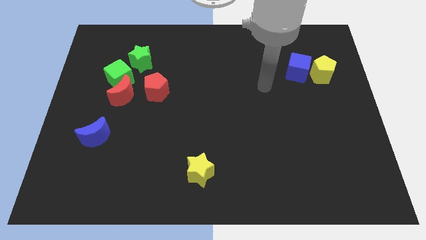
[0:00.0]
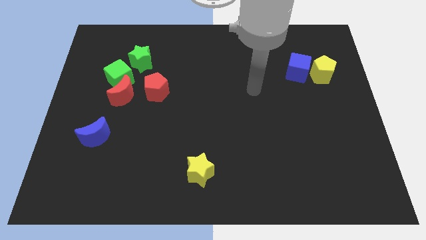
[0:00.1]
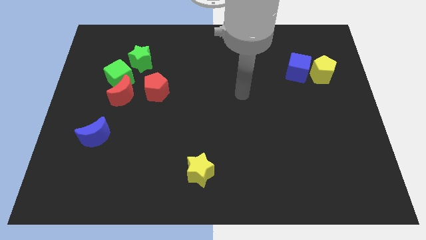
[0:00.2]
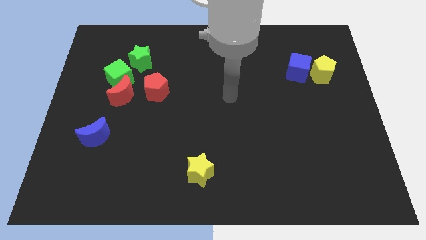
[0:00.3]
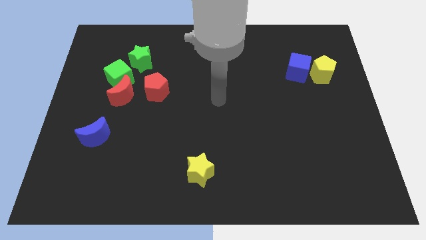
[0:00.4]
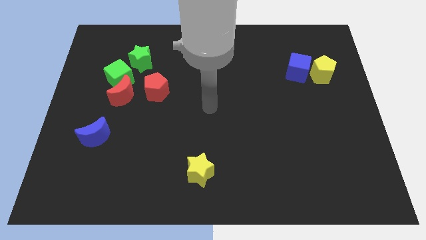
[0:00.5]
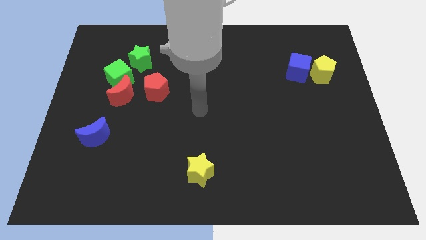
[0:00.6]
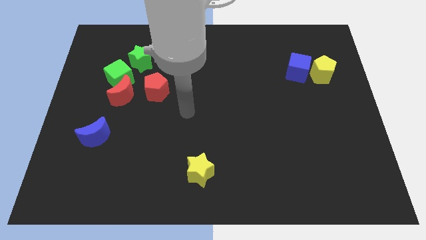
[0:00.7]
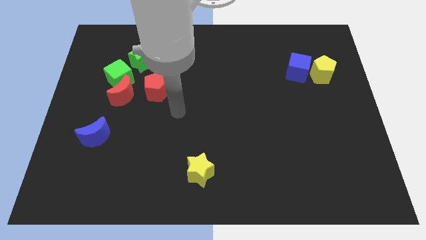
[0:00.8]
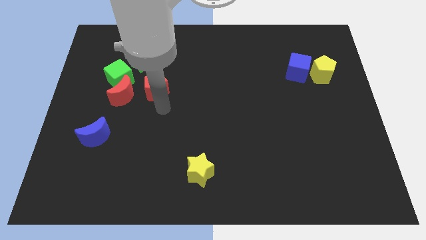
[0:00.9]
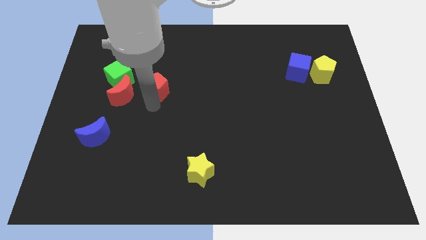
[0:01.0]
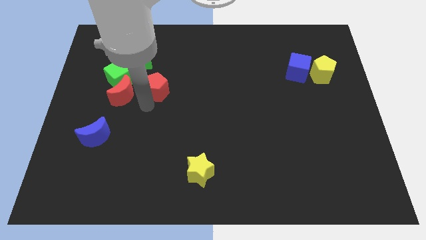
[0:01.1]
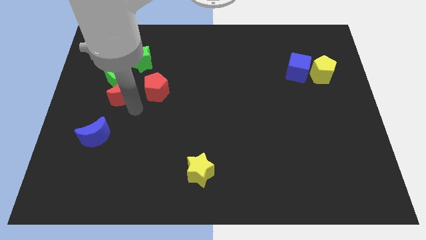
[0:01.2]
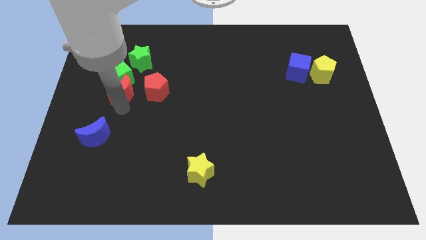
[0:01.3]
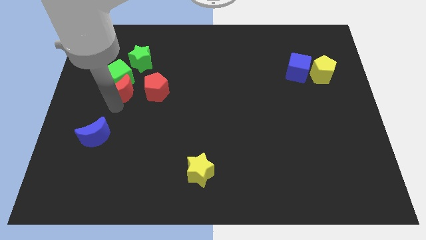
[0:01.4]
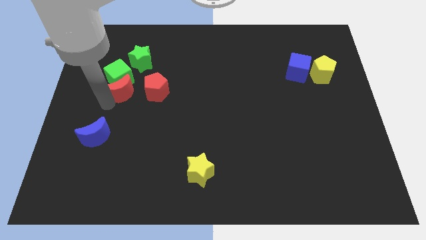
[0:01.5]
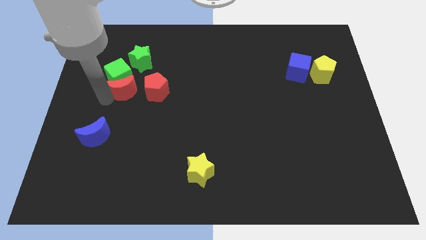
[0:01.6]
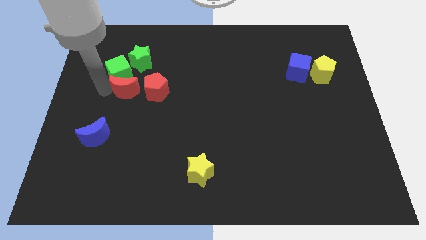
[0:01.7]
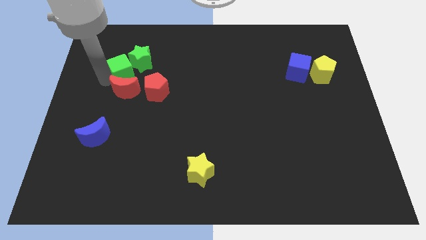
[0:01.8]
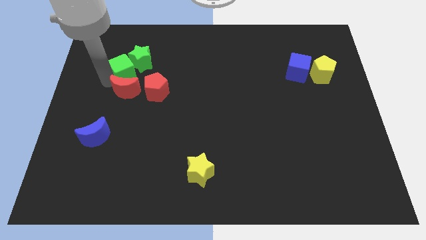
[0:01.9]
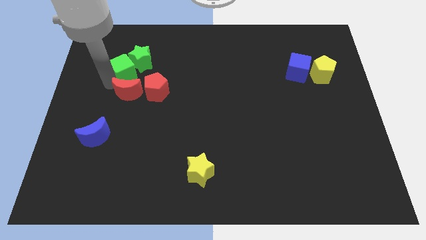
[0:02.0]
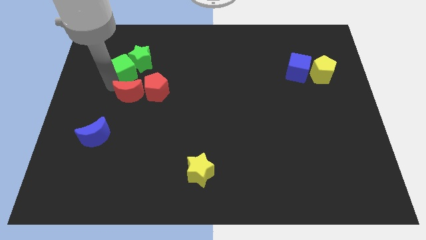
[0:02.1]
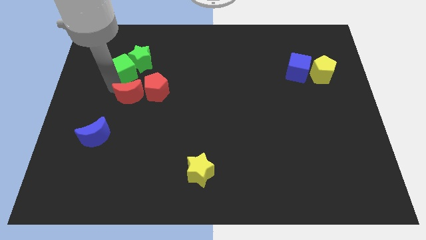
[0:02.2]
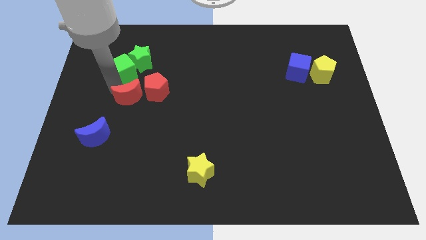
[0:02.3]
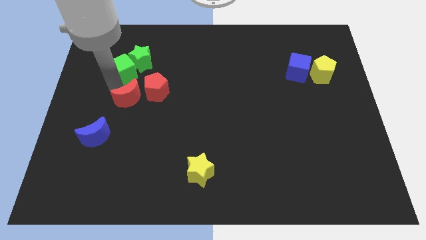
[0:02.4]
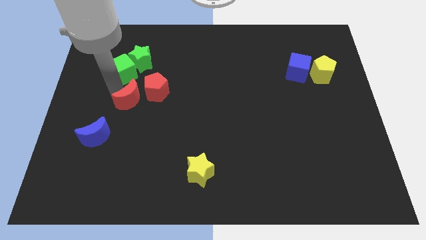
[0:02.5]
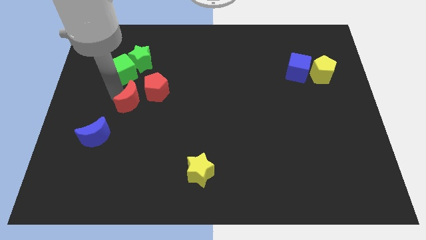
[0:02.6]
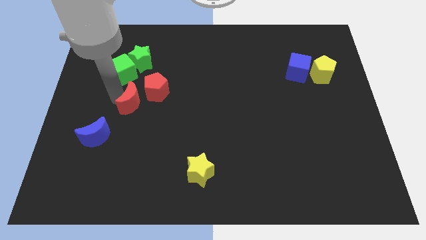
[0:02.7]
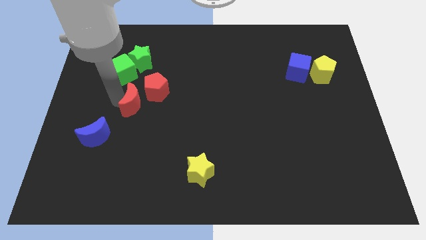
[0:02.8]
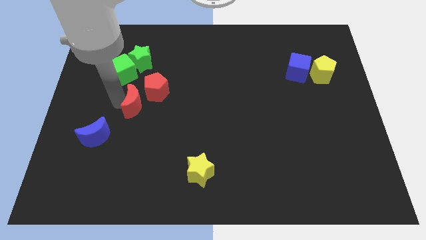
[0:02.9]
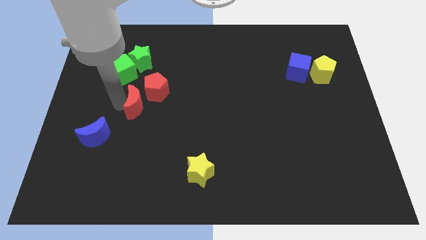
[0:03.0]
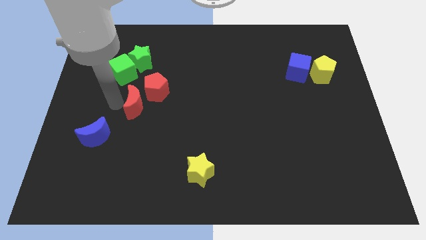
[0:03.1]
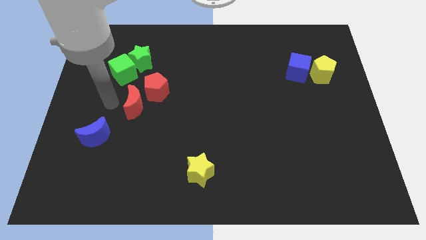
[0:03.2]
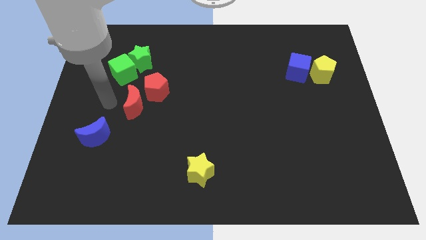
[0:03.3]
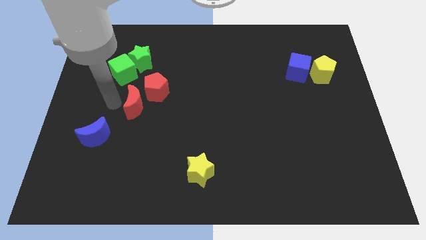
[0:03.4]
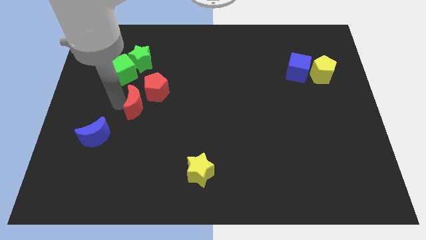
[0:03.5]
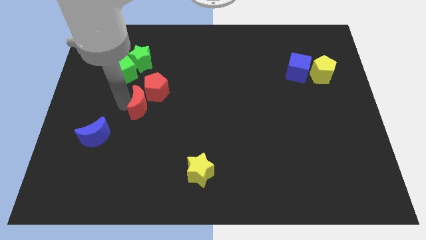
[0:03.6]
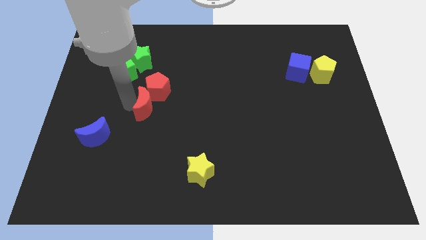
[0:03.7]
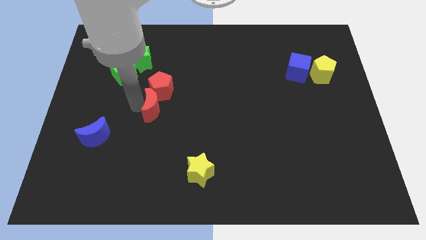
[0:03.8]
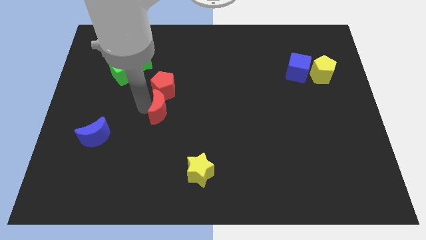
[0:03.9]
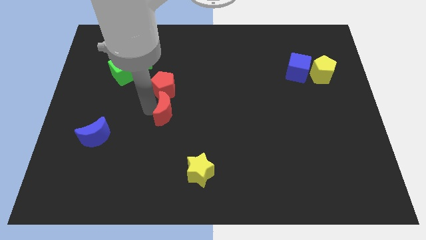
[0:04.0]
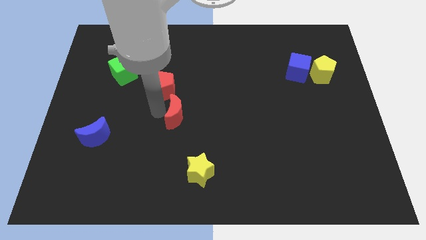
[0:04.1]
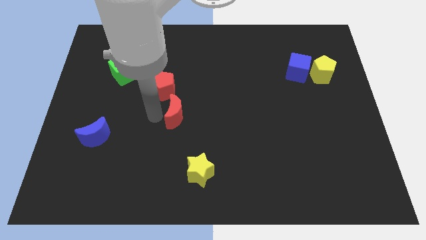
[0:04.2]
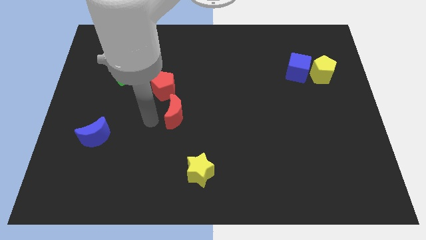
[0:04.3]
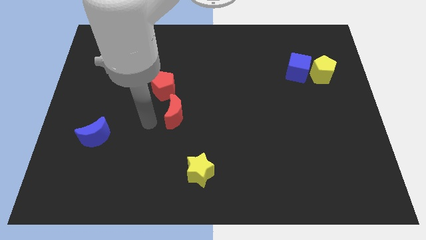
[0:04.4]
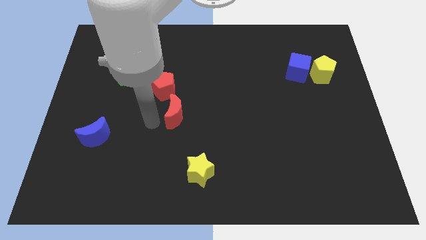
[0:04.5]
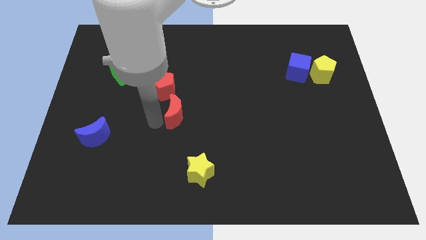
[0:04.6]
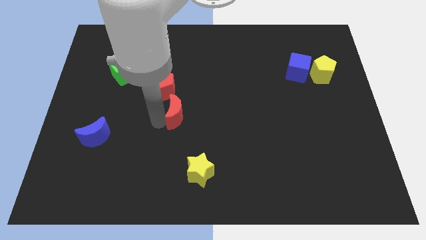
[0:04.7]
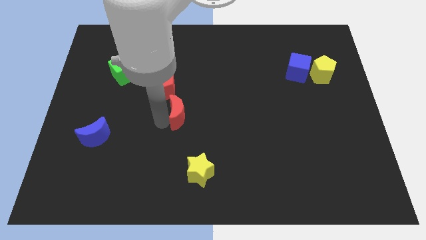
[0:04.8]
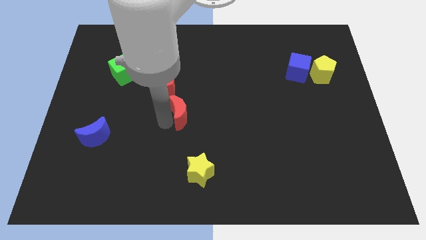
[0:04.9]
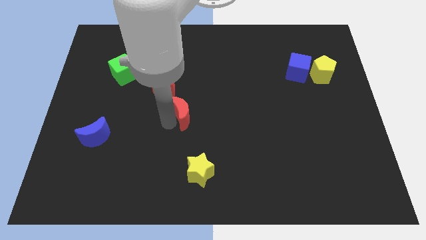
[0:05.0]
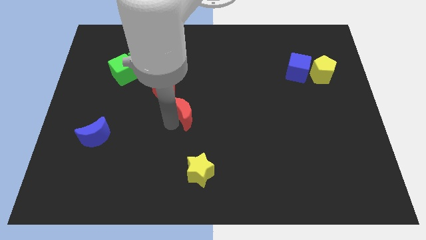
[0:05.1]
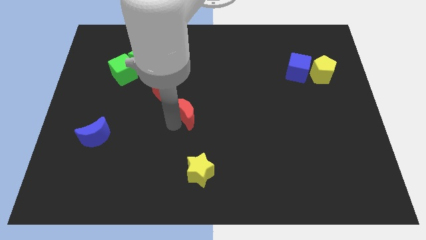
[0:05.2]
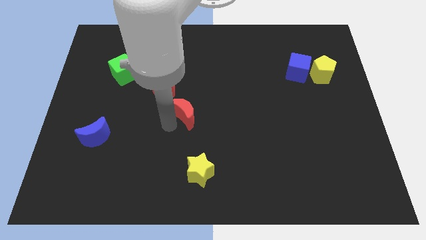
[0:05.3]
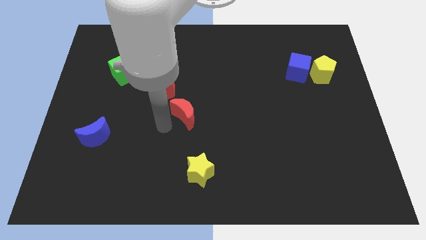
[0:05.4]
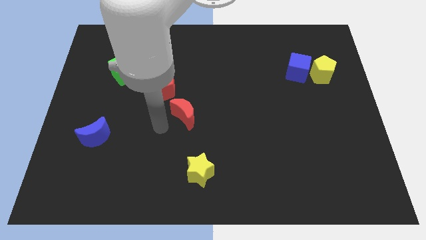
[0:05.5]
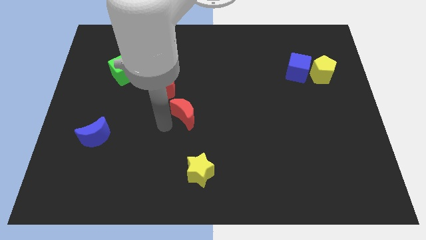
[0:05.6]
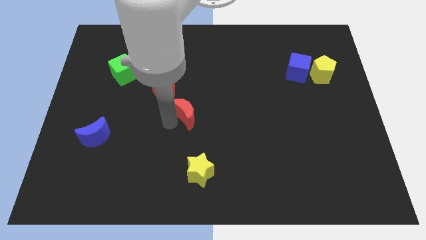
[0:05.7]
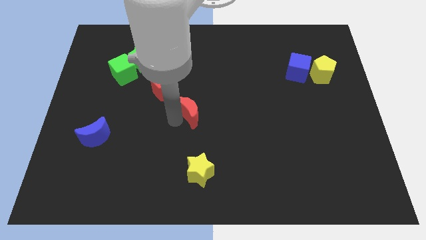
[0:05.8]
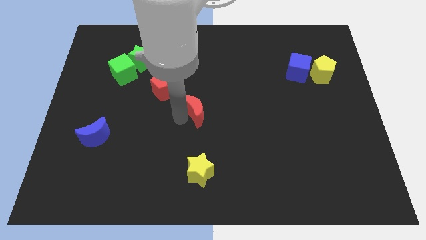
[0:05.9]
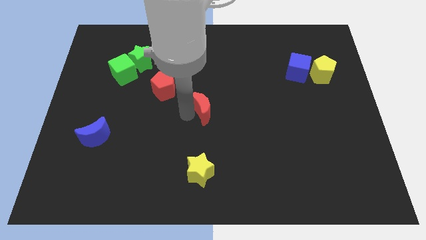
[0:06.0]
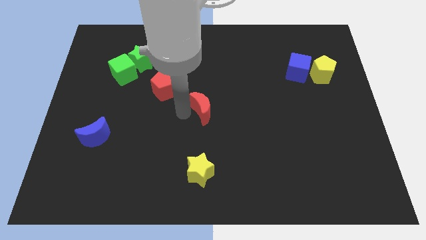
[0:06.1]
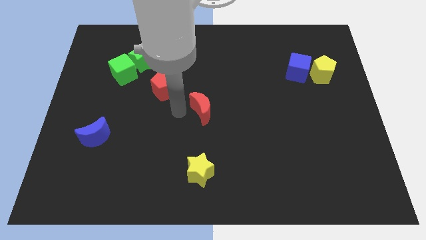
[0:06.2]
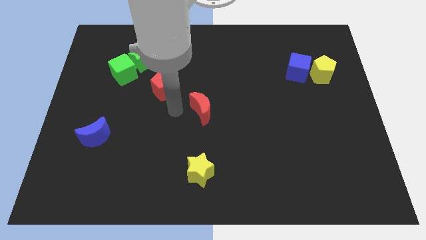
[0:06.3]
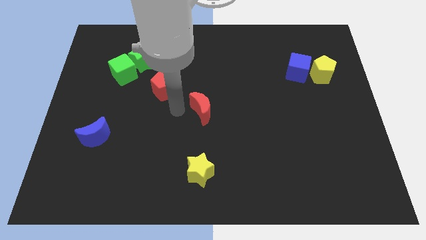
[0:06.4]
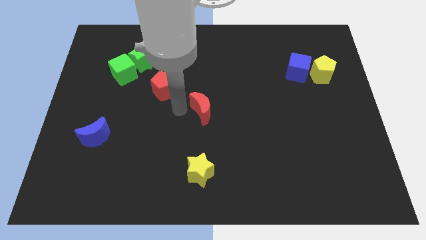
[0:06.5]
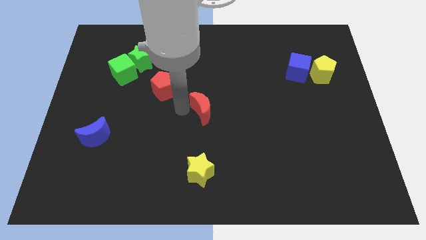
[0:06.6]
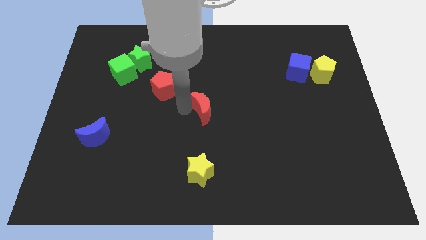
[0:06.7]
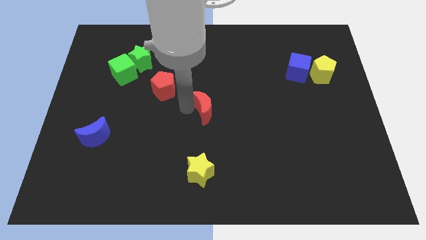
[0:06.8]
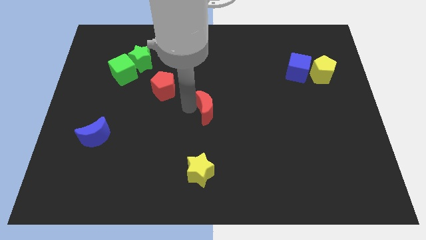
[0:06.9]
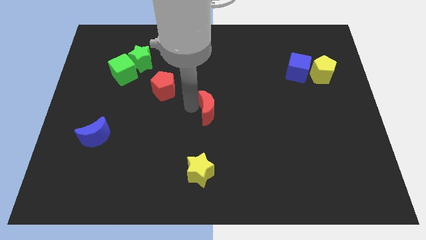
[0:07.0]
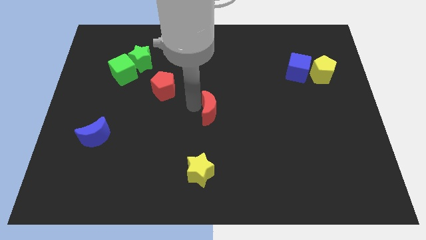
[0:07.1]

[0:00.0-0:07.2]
slide the red moon to the right

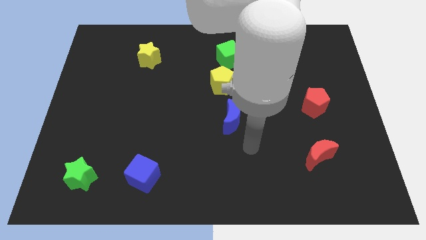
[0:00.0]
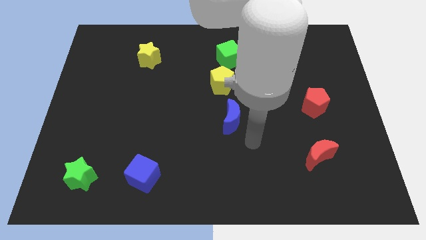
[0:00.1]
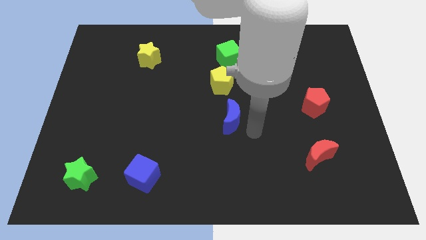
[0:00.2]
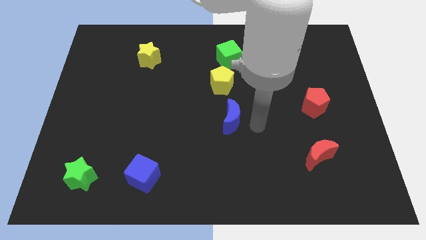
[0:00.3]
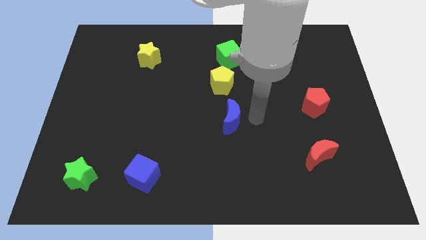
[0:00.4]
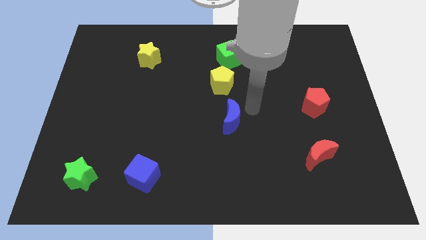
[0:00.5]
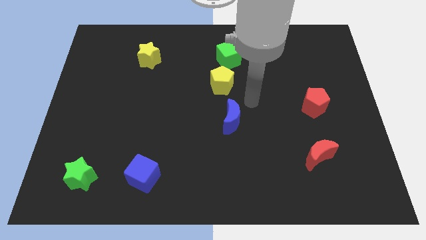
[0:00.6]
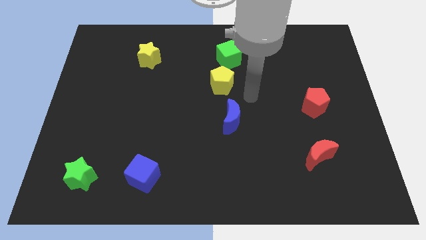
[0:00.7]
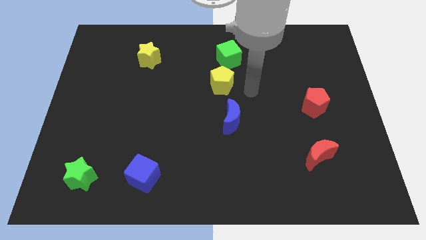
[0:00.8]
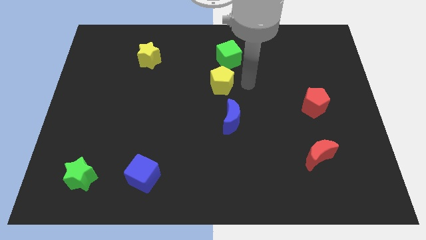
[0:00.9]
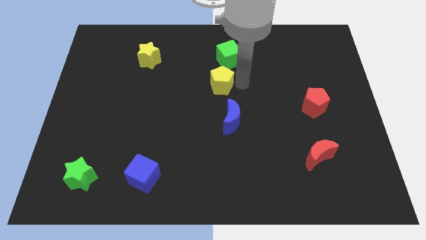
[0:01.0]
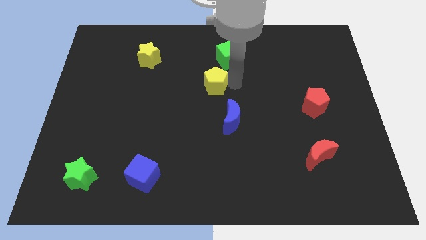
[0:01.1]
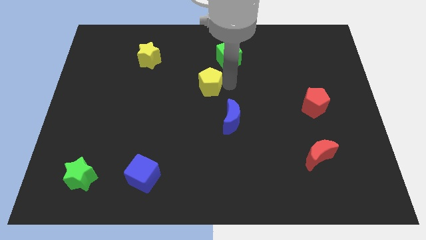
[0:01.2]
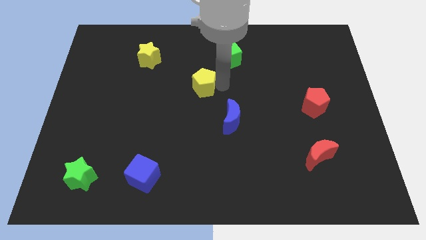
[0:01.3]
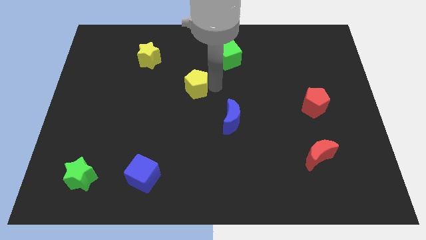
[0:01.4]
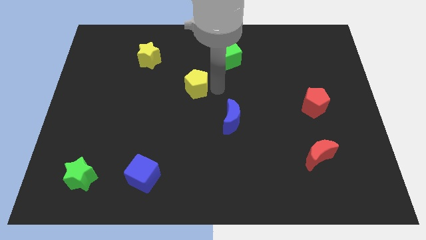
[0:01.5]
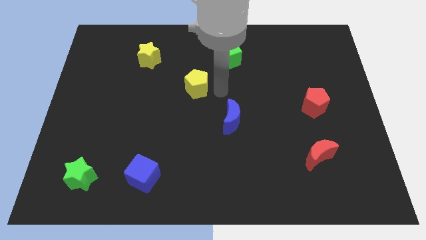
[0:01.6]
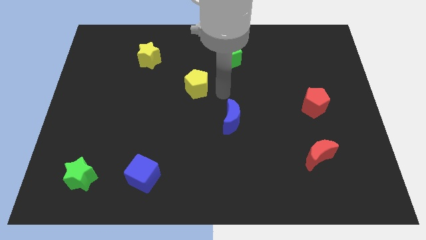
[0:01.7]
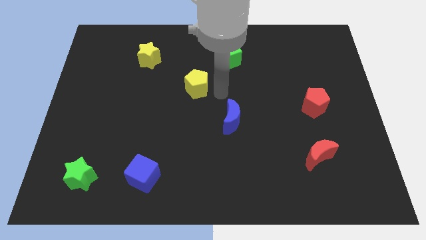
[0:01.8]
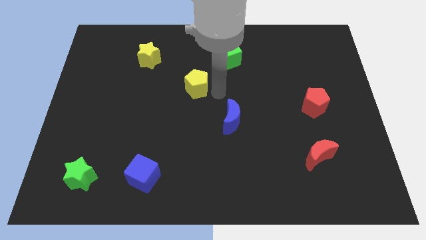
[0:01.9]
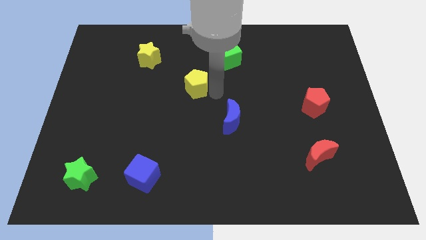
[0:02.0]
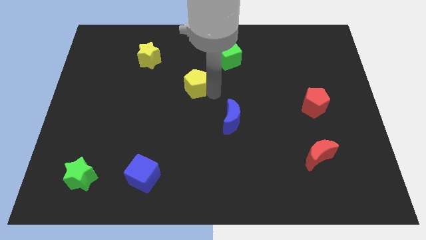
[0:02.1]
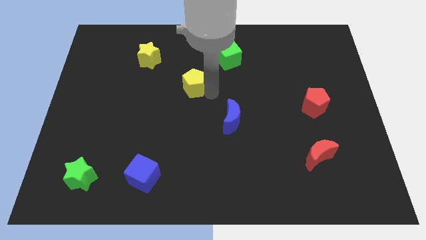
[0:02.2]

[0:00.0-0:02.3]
slightly slide the yellow pentagon to the left
